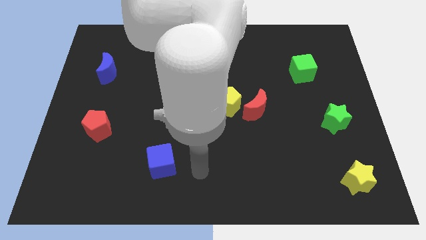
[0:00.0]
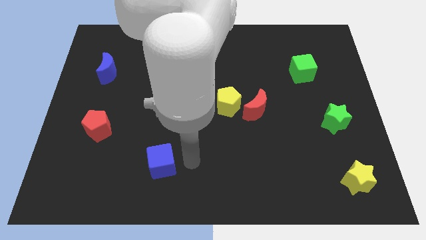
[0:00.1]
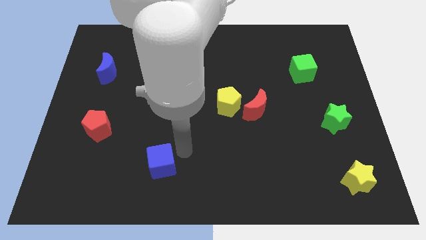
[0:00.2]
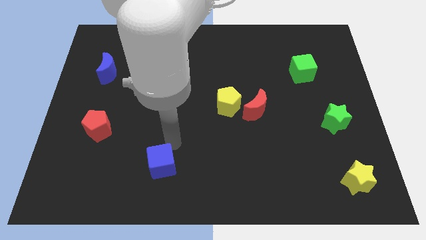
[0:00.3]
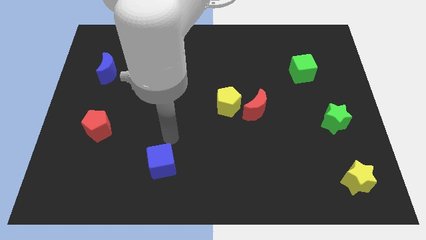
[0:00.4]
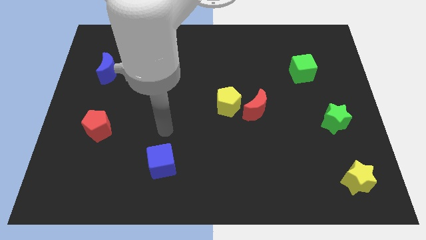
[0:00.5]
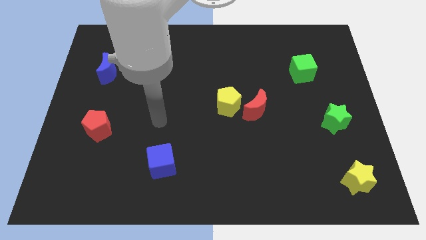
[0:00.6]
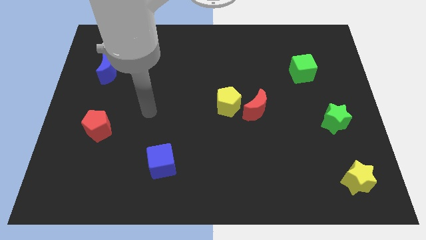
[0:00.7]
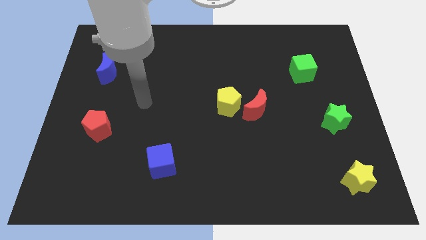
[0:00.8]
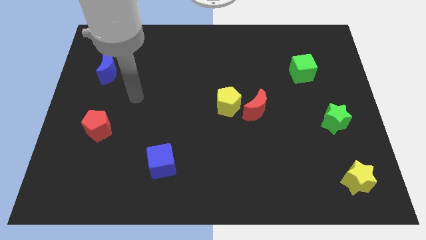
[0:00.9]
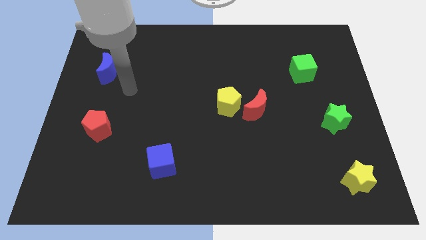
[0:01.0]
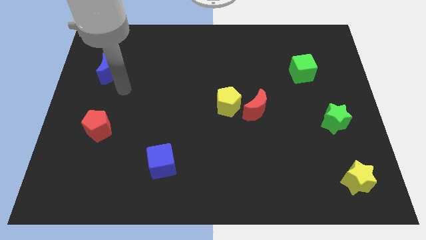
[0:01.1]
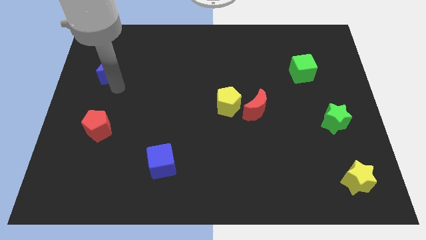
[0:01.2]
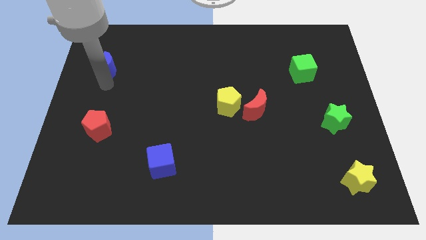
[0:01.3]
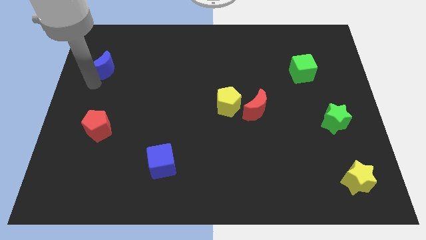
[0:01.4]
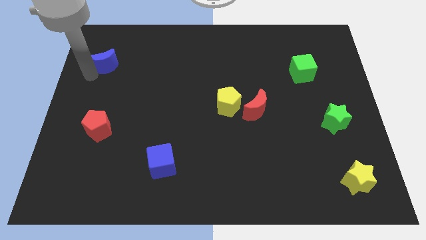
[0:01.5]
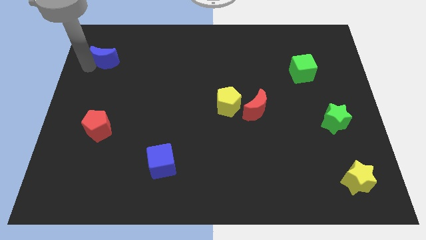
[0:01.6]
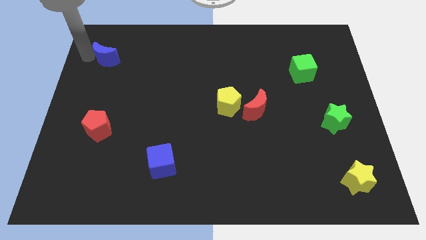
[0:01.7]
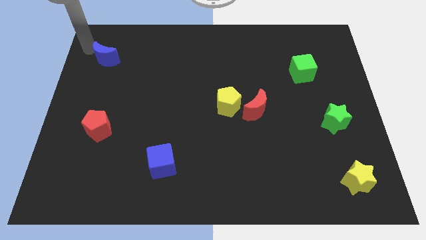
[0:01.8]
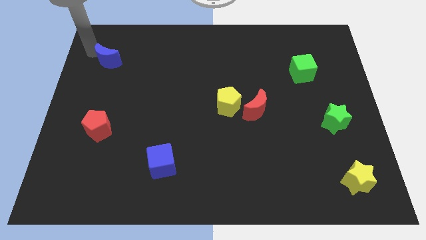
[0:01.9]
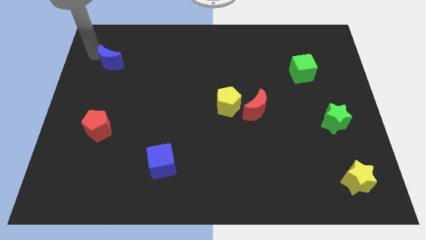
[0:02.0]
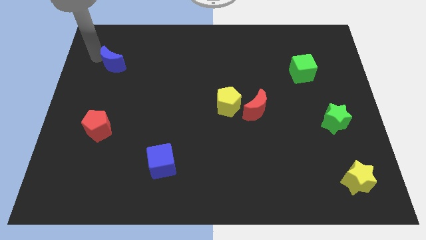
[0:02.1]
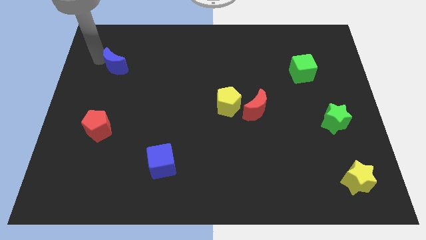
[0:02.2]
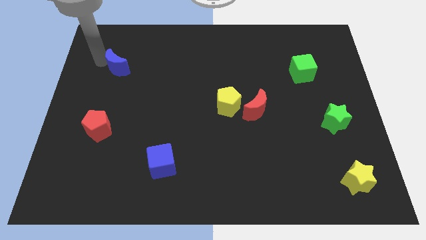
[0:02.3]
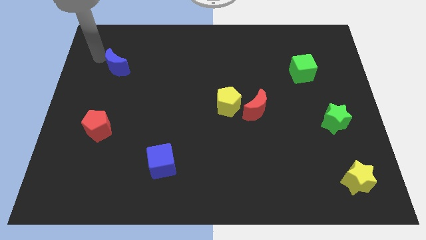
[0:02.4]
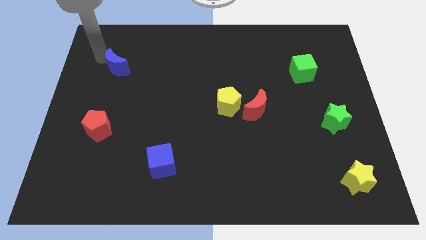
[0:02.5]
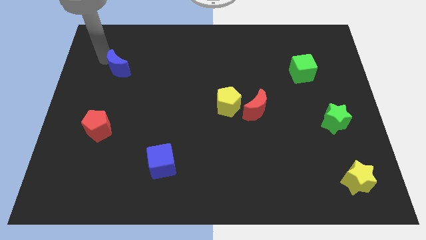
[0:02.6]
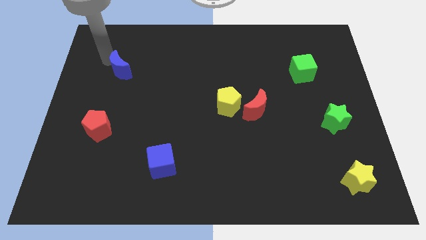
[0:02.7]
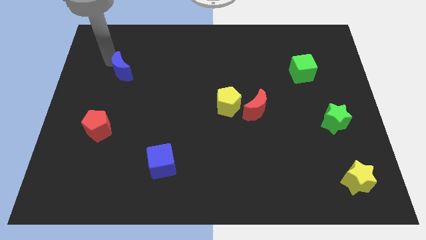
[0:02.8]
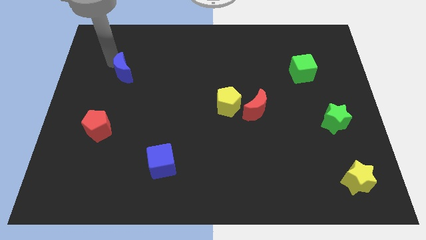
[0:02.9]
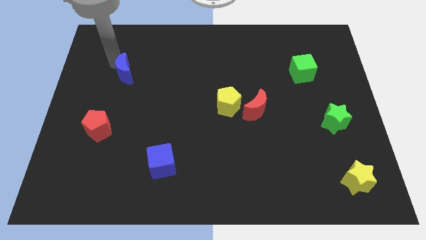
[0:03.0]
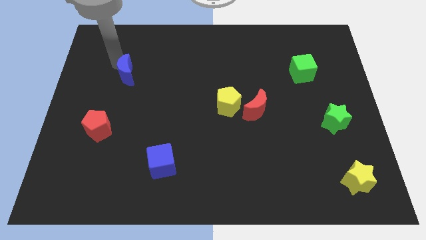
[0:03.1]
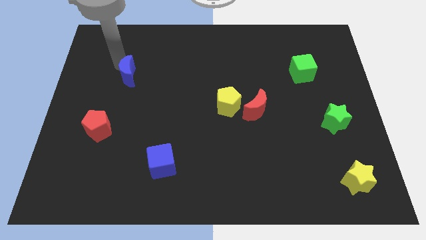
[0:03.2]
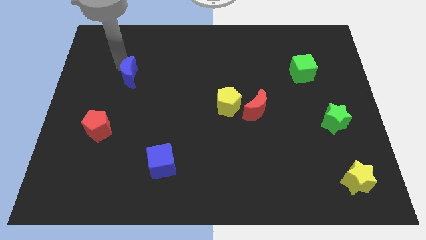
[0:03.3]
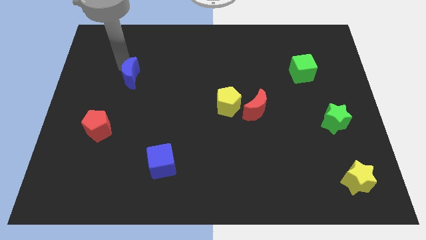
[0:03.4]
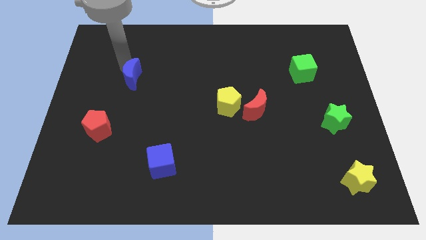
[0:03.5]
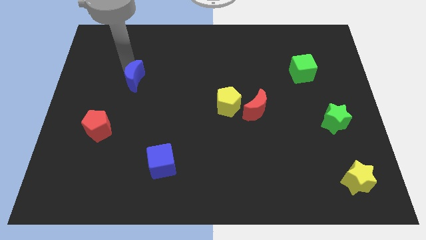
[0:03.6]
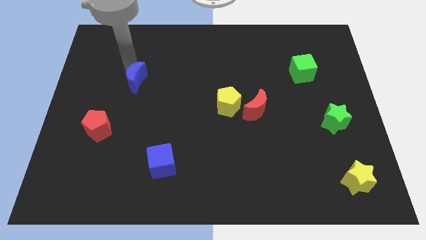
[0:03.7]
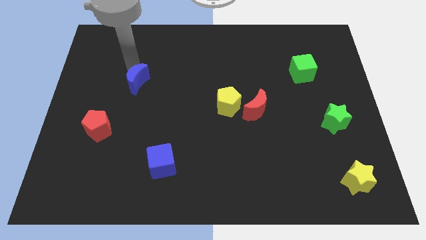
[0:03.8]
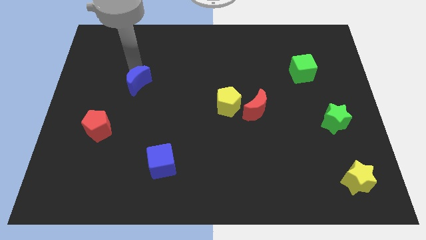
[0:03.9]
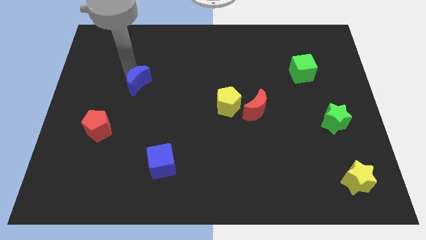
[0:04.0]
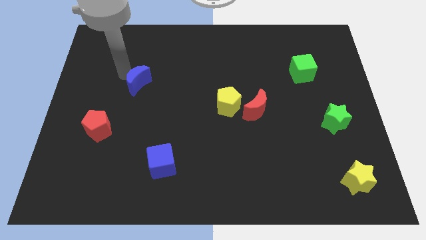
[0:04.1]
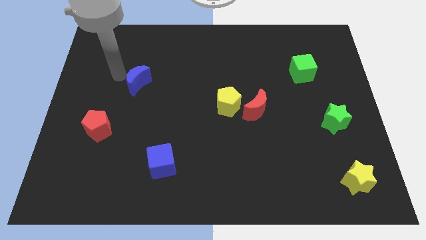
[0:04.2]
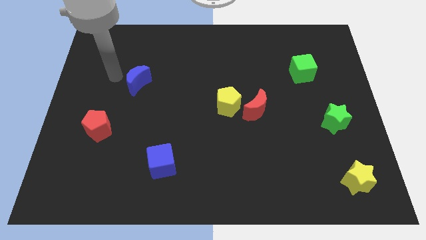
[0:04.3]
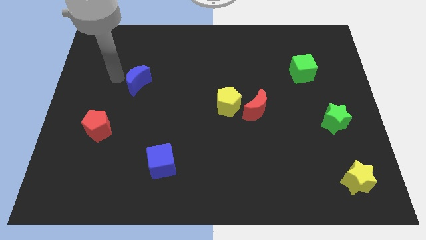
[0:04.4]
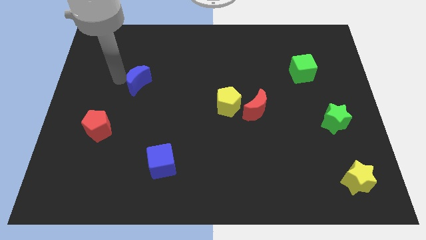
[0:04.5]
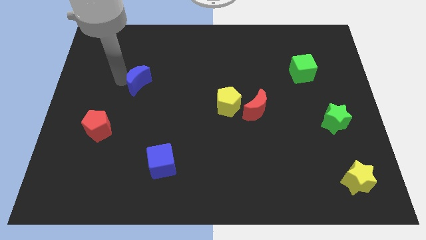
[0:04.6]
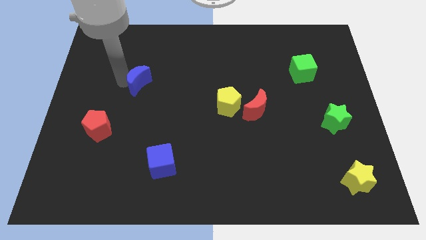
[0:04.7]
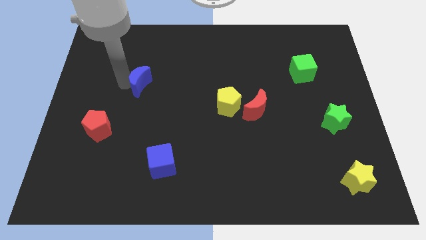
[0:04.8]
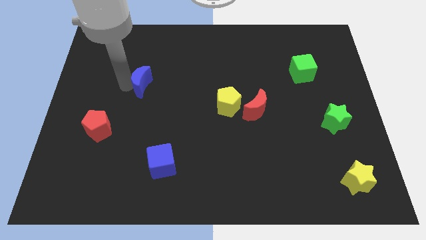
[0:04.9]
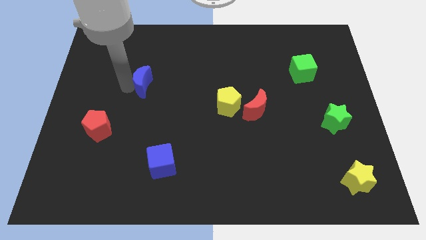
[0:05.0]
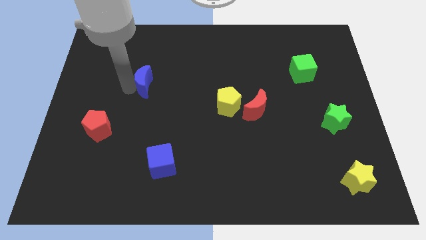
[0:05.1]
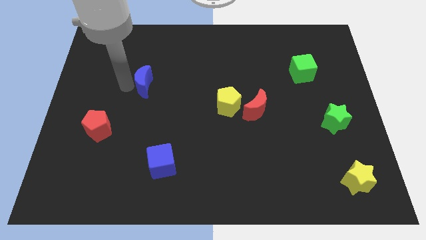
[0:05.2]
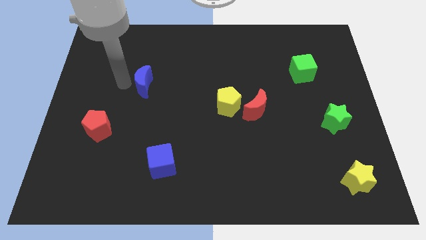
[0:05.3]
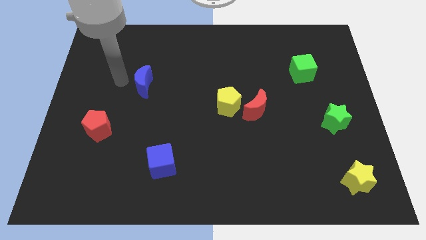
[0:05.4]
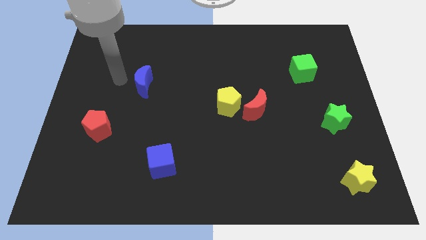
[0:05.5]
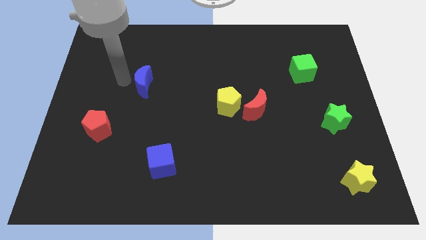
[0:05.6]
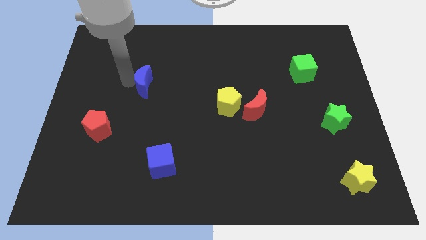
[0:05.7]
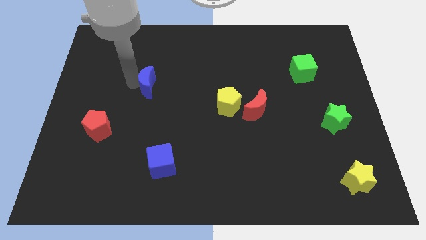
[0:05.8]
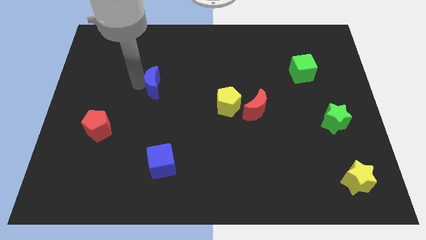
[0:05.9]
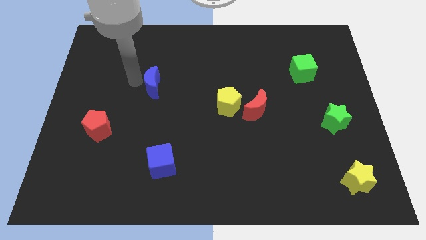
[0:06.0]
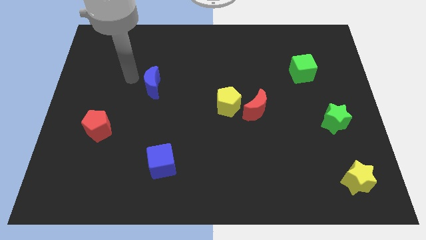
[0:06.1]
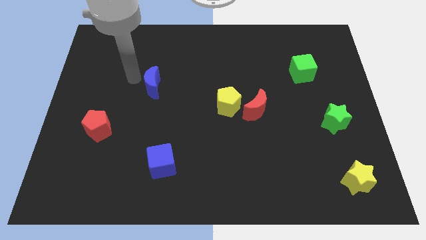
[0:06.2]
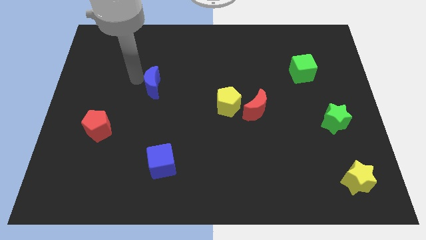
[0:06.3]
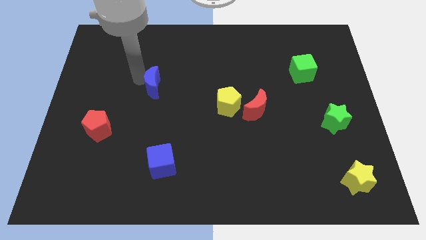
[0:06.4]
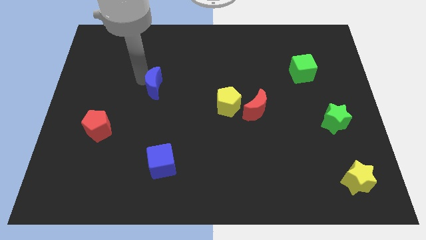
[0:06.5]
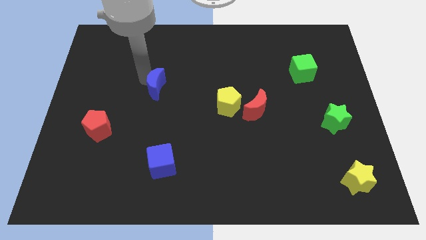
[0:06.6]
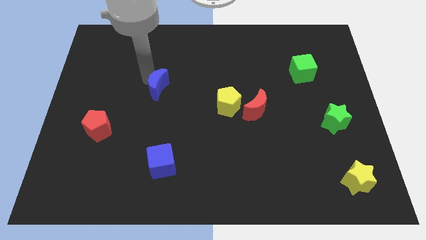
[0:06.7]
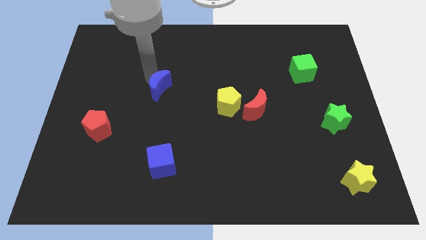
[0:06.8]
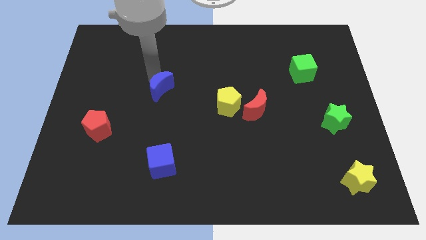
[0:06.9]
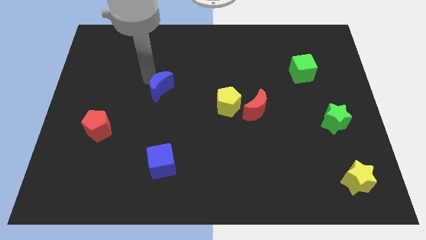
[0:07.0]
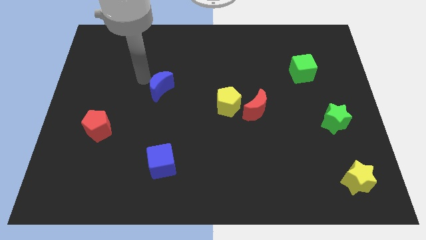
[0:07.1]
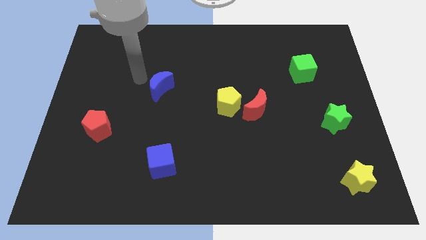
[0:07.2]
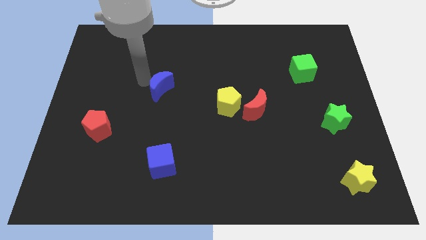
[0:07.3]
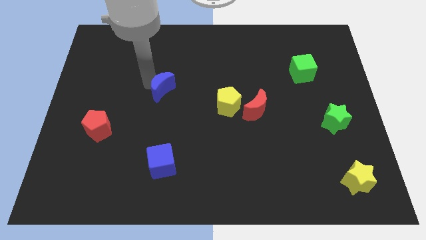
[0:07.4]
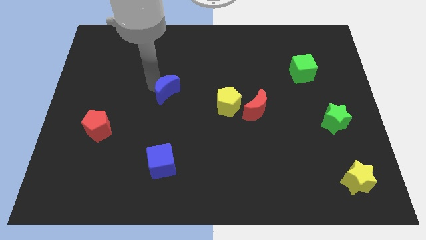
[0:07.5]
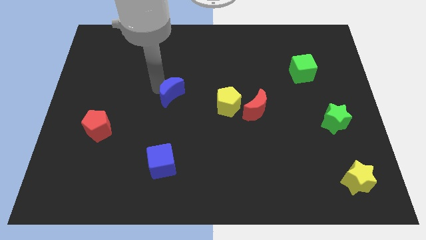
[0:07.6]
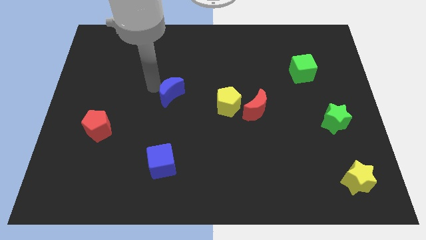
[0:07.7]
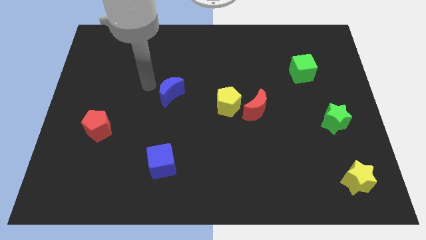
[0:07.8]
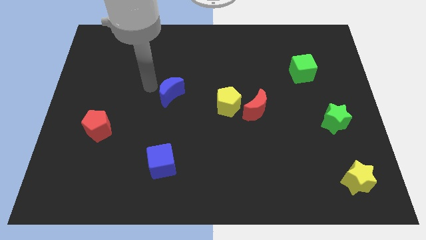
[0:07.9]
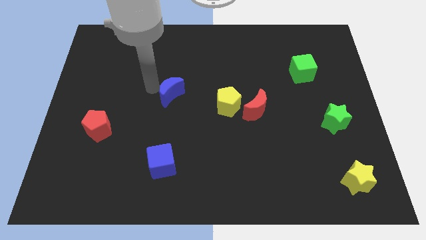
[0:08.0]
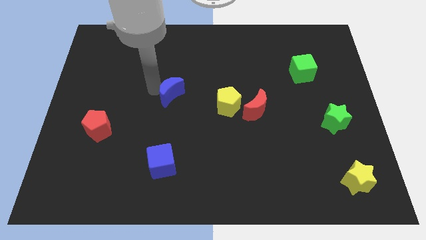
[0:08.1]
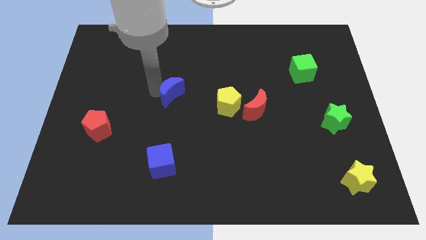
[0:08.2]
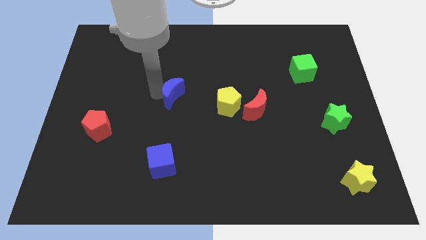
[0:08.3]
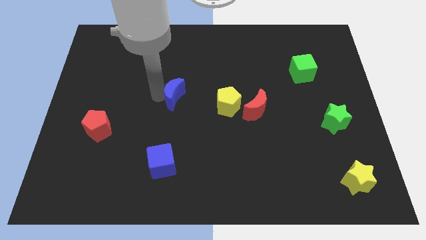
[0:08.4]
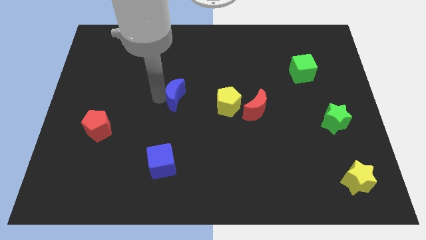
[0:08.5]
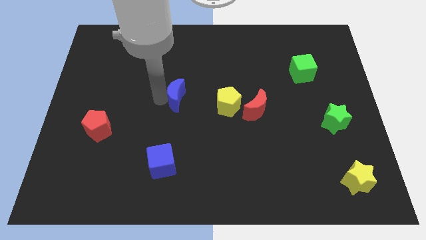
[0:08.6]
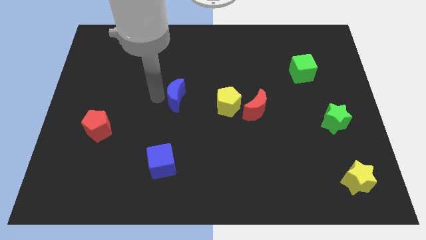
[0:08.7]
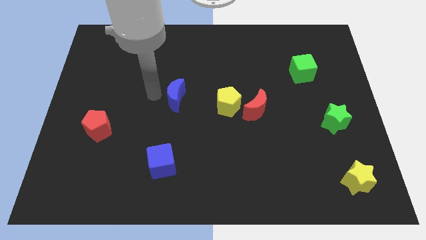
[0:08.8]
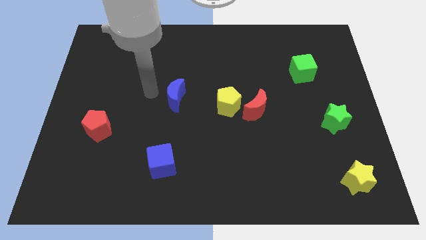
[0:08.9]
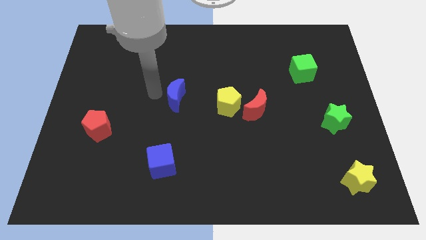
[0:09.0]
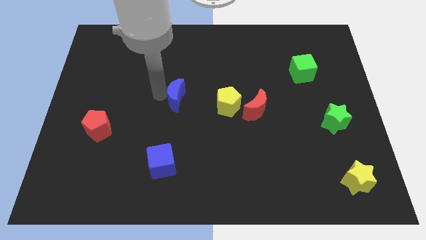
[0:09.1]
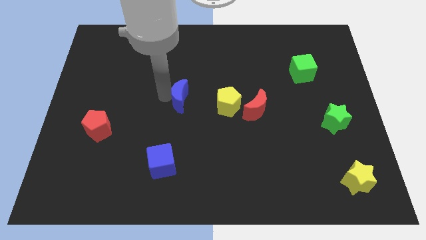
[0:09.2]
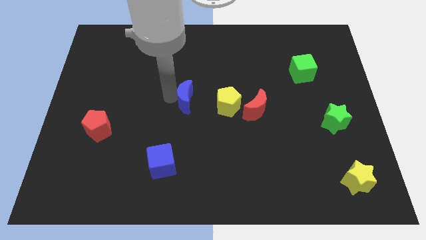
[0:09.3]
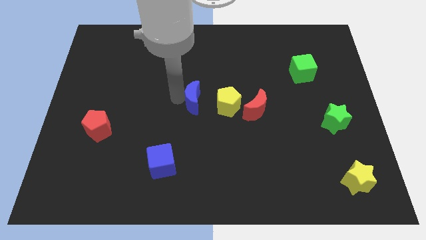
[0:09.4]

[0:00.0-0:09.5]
slide the blue moon left of the red moon
